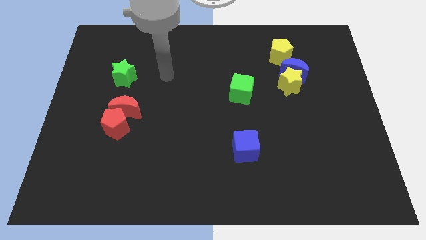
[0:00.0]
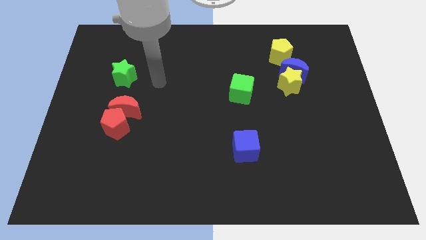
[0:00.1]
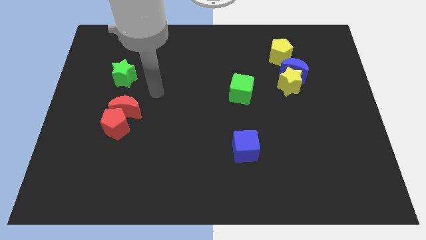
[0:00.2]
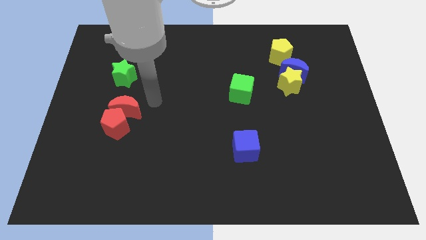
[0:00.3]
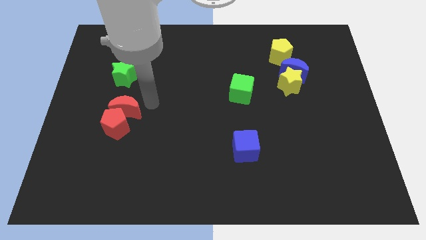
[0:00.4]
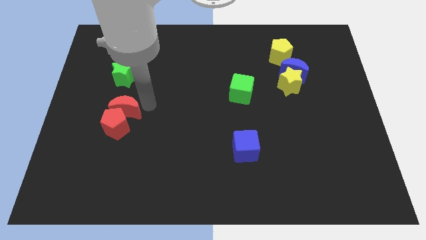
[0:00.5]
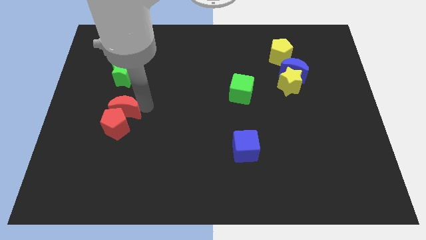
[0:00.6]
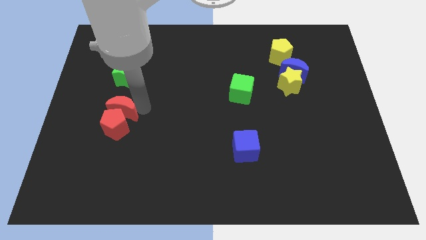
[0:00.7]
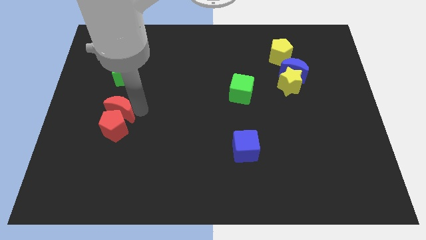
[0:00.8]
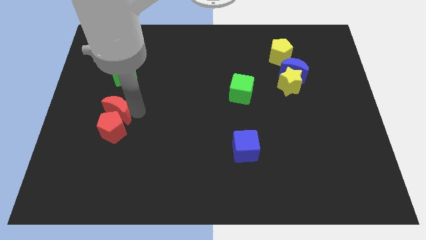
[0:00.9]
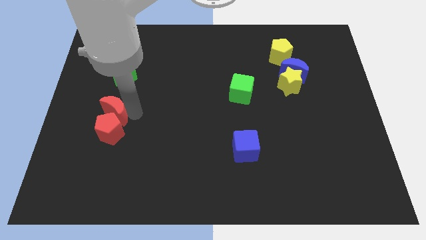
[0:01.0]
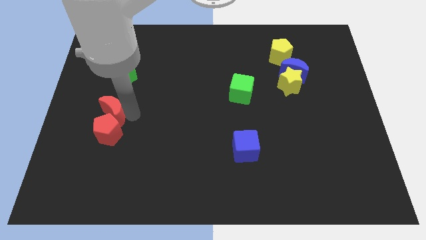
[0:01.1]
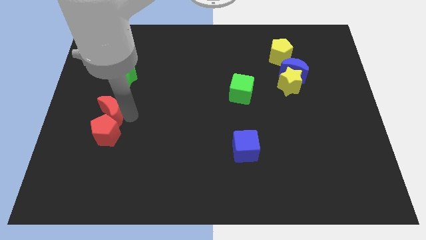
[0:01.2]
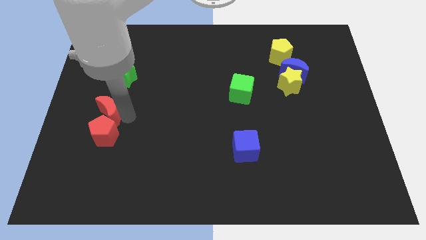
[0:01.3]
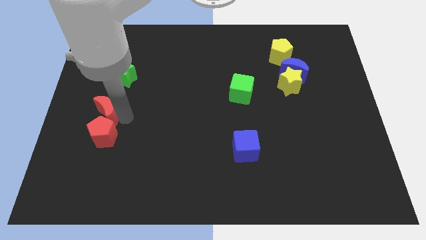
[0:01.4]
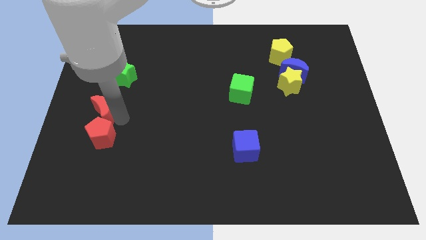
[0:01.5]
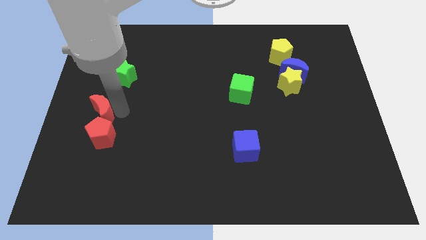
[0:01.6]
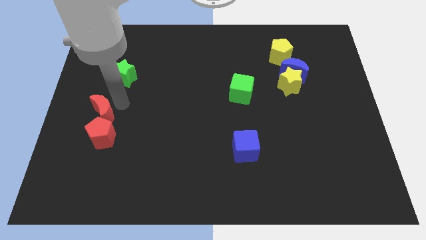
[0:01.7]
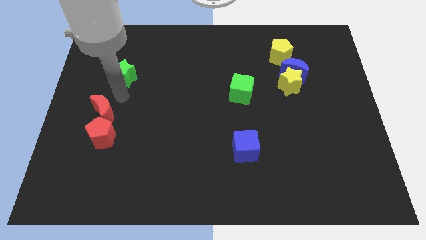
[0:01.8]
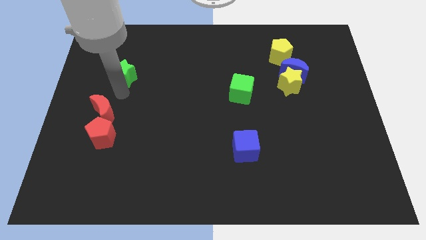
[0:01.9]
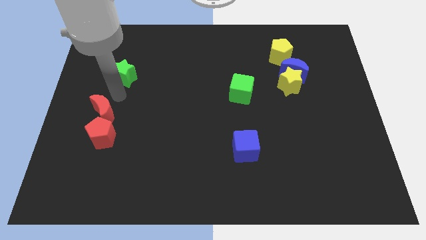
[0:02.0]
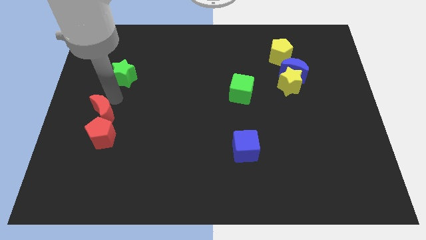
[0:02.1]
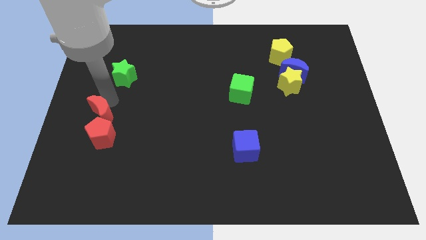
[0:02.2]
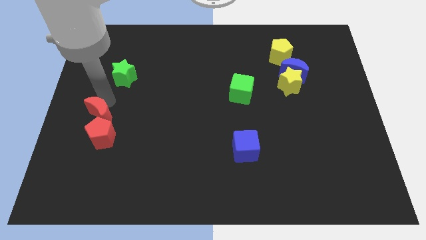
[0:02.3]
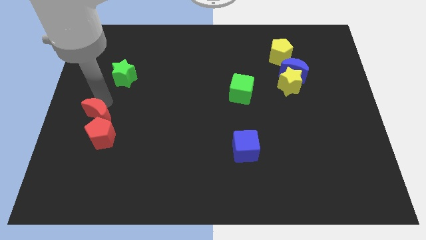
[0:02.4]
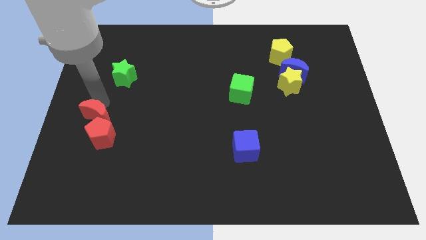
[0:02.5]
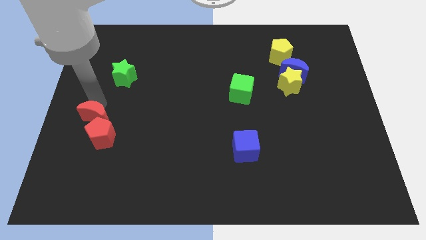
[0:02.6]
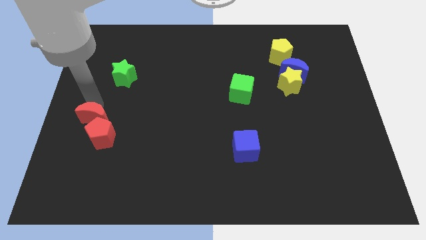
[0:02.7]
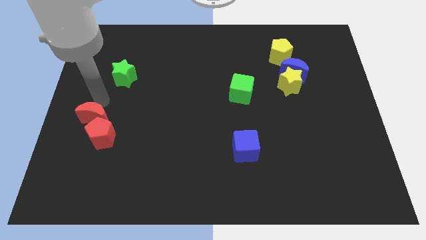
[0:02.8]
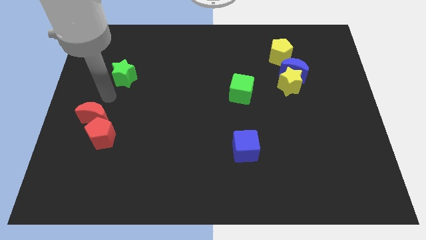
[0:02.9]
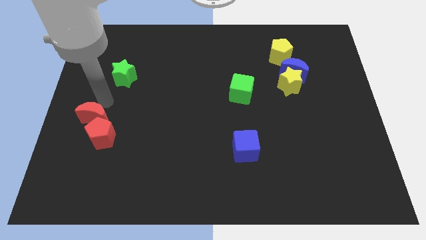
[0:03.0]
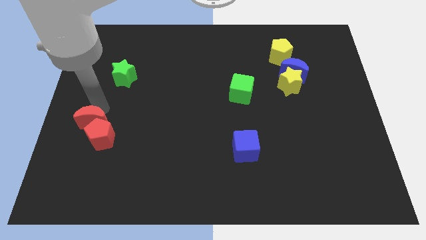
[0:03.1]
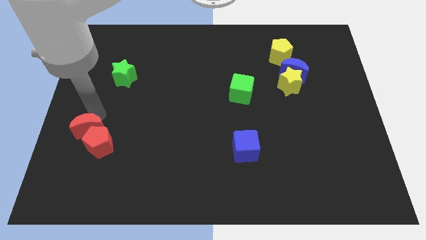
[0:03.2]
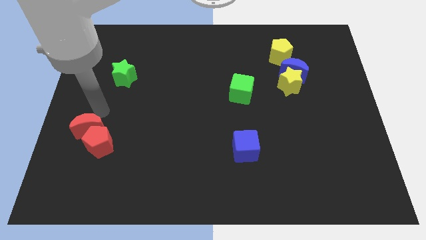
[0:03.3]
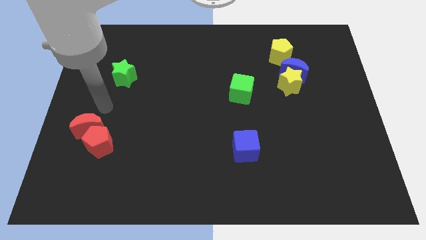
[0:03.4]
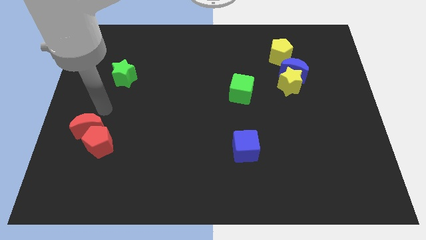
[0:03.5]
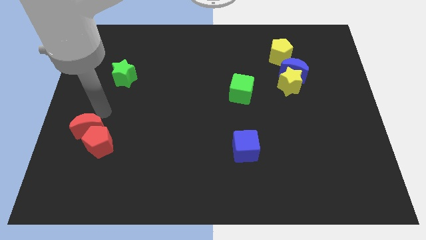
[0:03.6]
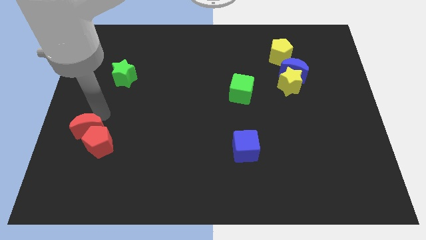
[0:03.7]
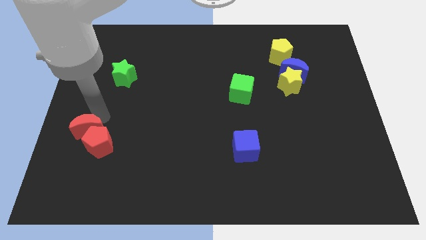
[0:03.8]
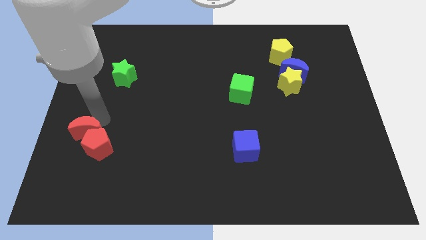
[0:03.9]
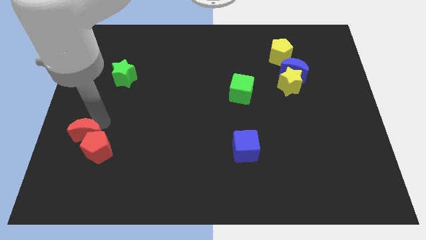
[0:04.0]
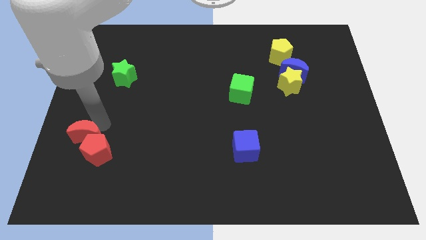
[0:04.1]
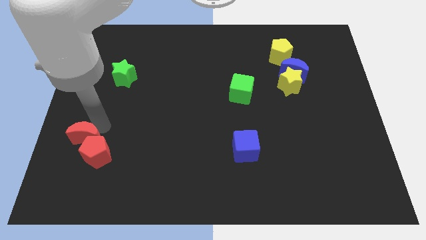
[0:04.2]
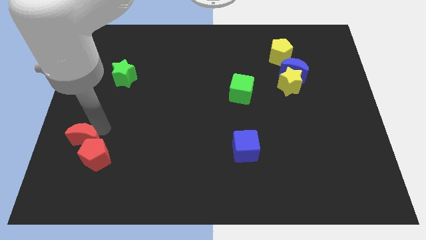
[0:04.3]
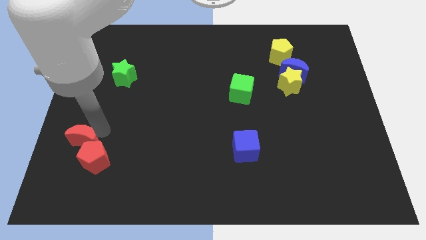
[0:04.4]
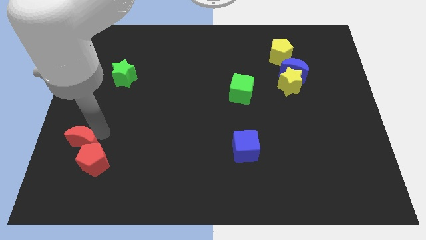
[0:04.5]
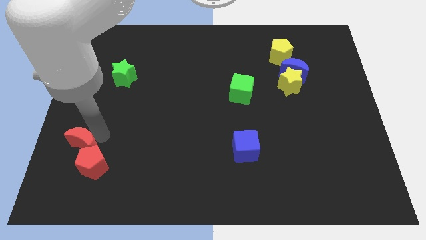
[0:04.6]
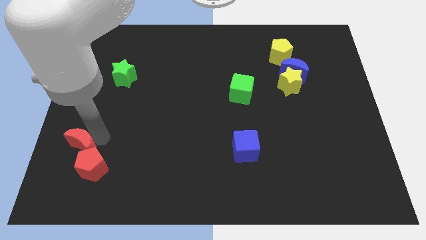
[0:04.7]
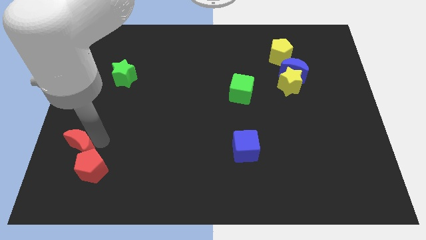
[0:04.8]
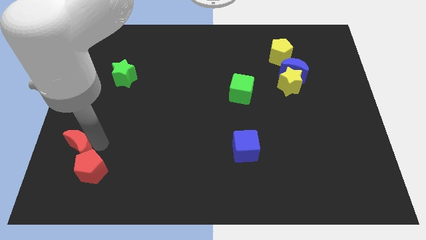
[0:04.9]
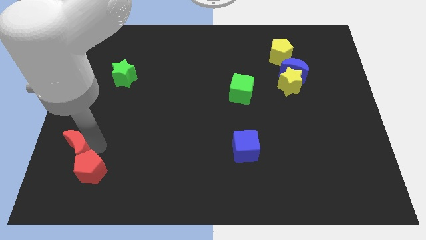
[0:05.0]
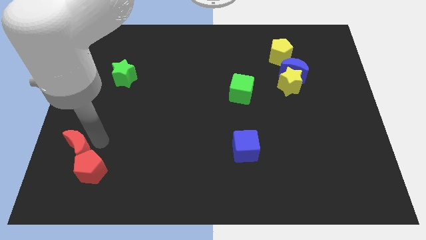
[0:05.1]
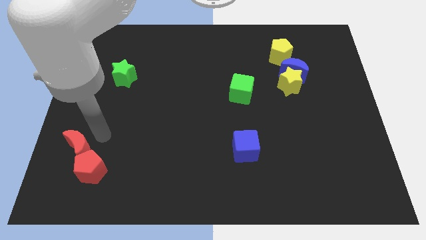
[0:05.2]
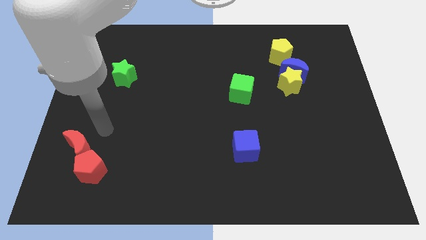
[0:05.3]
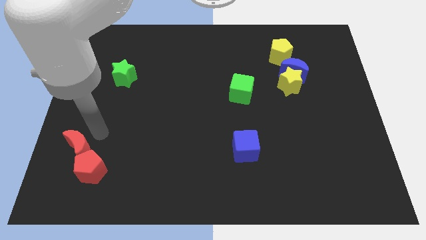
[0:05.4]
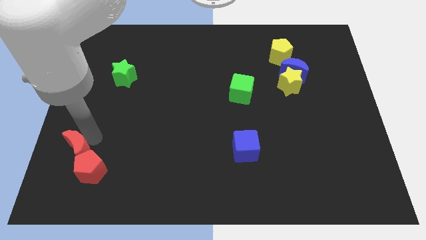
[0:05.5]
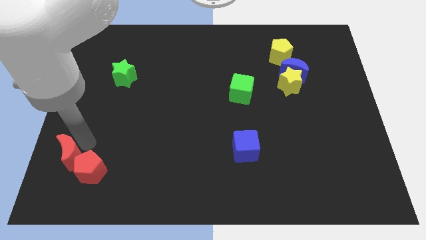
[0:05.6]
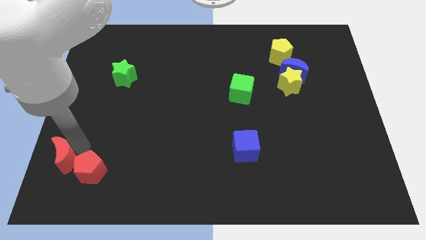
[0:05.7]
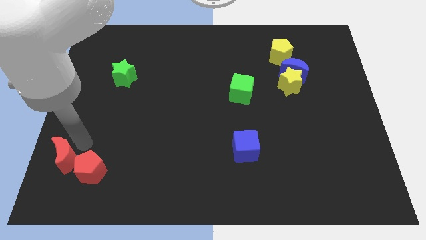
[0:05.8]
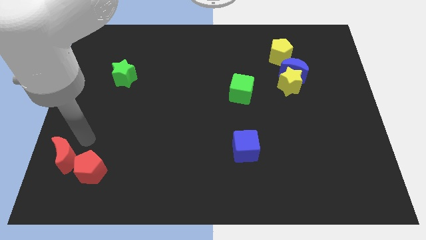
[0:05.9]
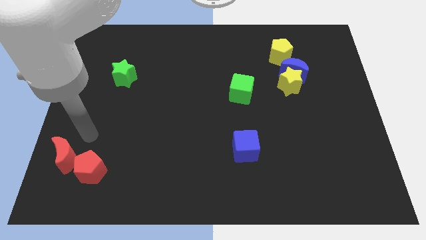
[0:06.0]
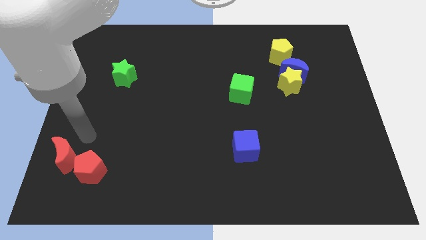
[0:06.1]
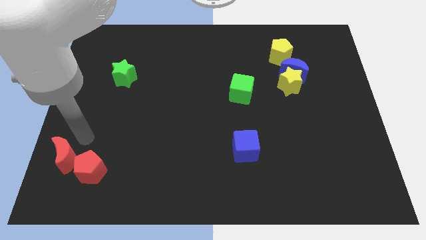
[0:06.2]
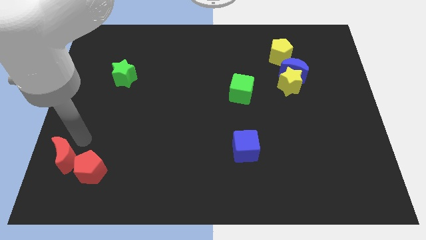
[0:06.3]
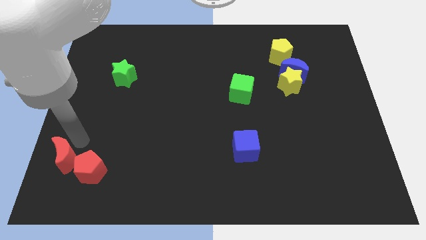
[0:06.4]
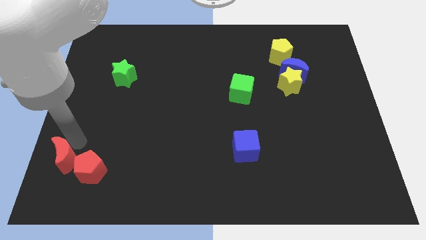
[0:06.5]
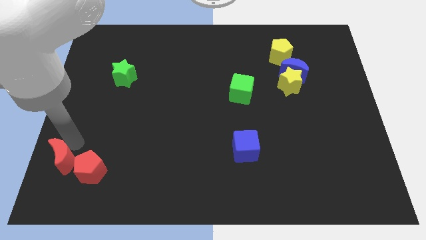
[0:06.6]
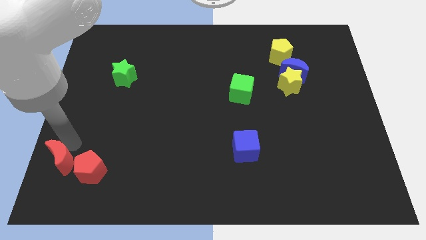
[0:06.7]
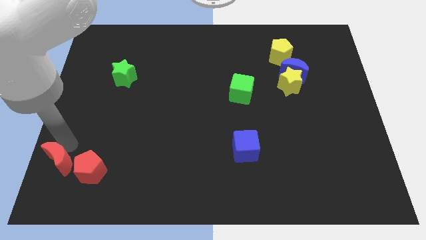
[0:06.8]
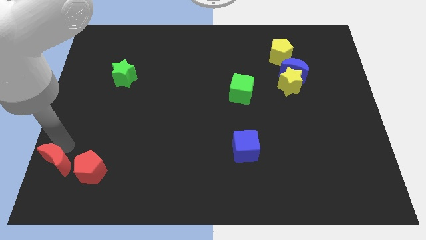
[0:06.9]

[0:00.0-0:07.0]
push the red moon to the bottom left corner
